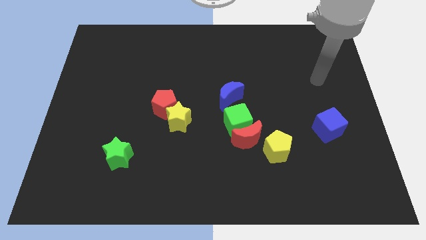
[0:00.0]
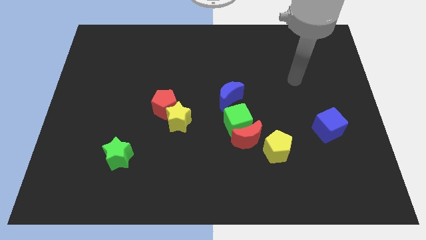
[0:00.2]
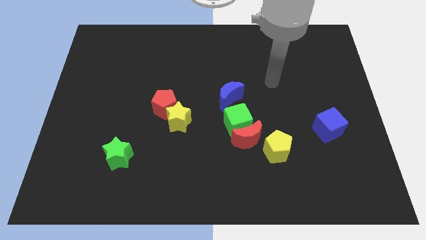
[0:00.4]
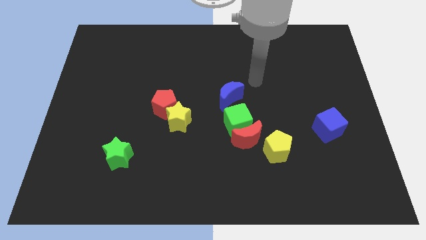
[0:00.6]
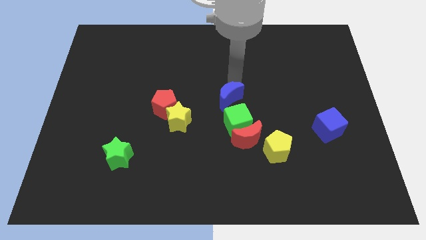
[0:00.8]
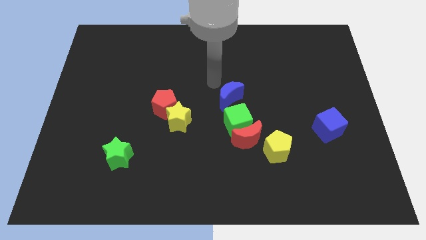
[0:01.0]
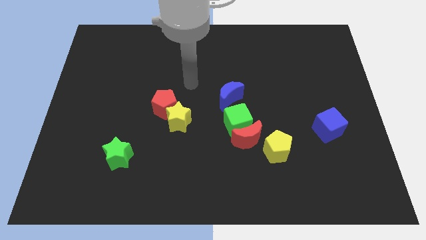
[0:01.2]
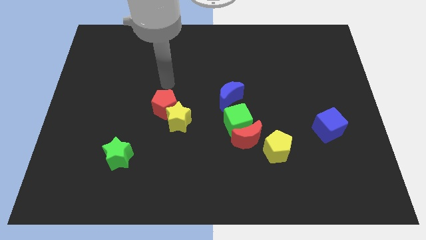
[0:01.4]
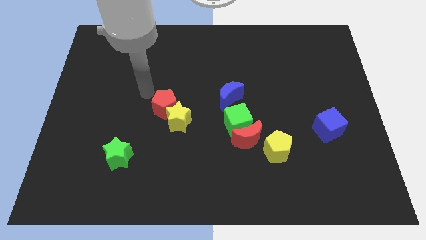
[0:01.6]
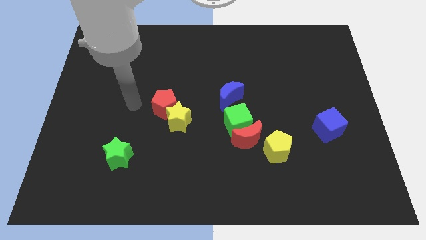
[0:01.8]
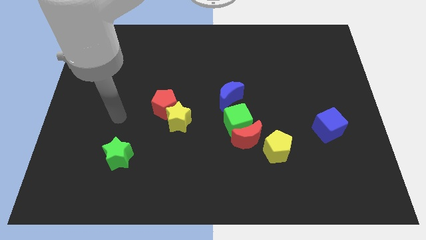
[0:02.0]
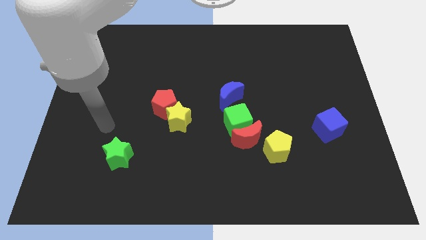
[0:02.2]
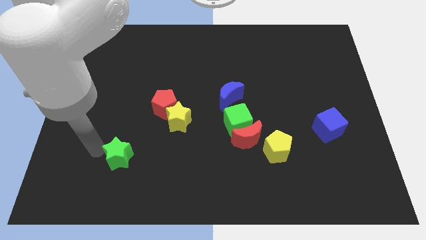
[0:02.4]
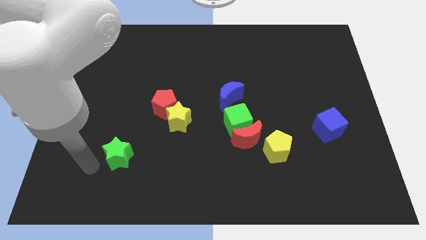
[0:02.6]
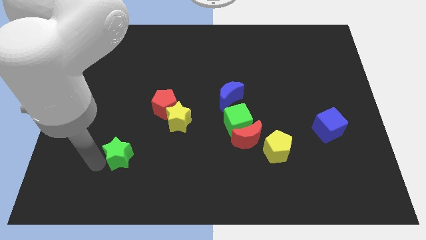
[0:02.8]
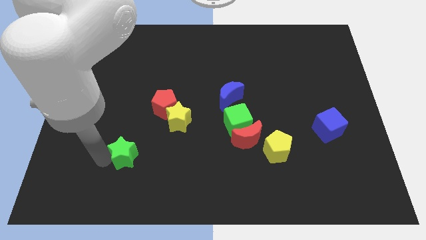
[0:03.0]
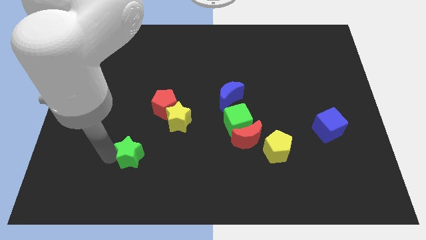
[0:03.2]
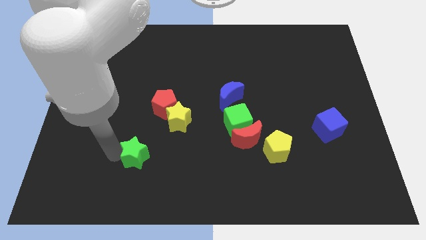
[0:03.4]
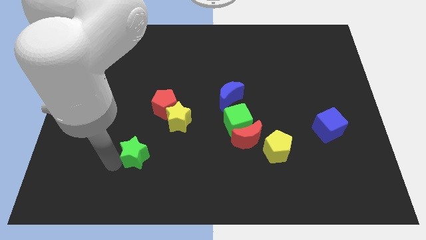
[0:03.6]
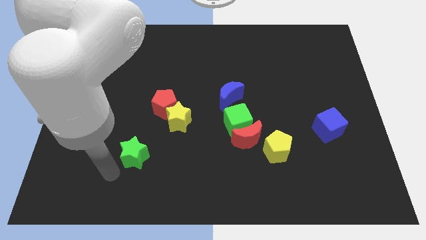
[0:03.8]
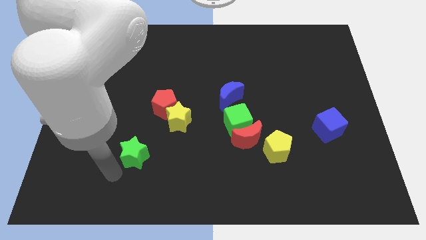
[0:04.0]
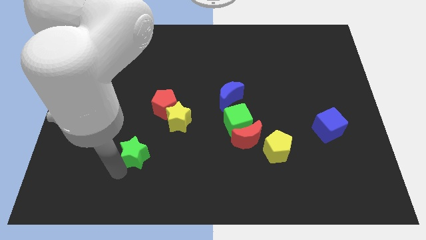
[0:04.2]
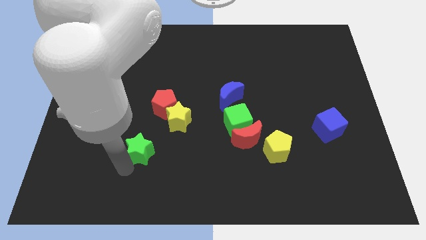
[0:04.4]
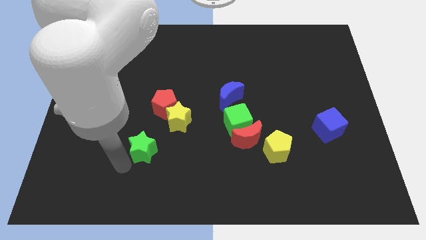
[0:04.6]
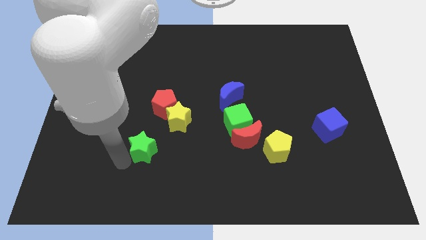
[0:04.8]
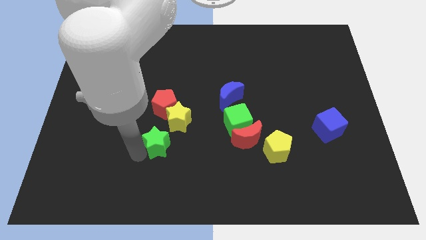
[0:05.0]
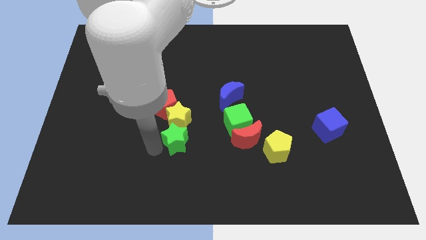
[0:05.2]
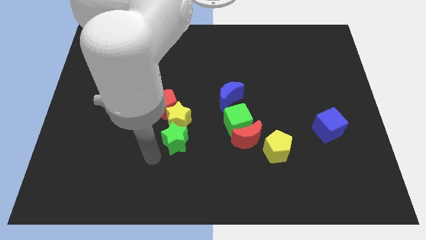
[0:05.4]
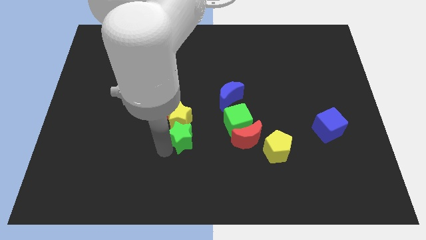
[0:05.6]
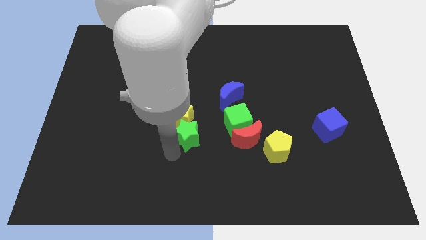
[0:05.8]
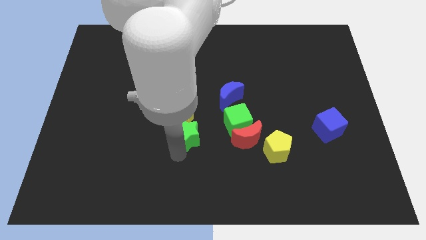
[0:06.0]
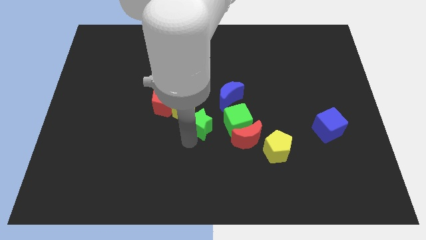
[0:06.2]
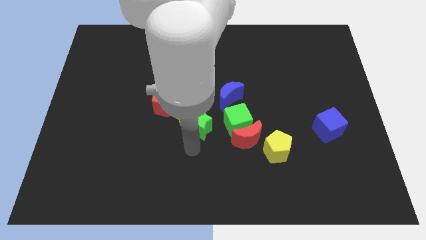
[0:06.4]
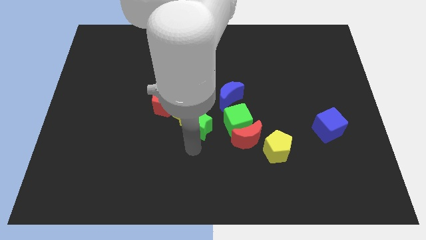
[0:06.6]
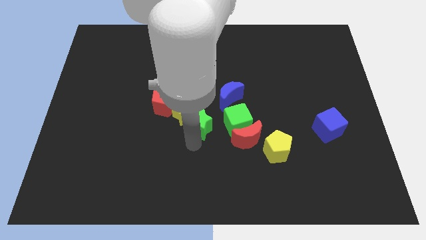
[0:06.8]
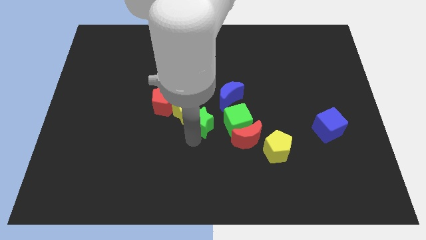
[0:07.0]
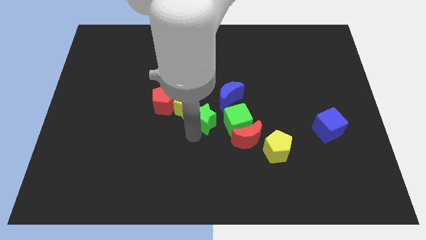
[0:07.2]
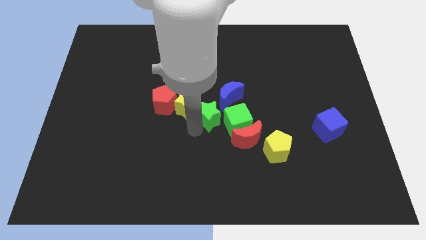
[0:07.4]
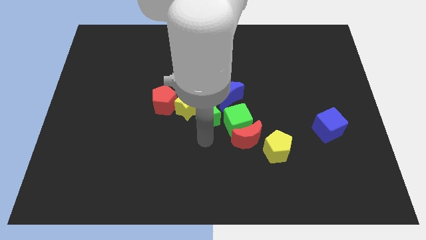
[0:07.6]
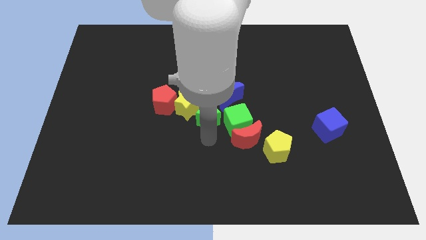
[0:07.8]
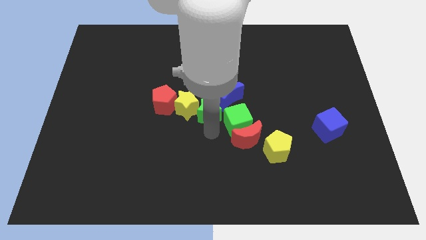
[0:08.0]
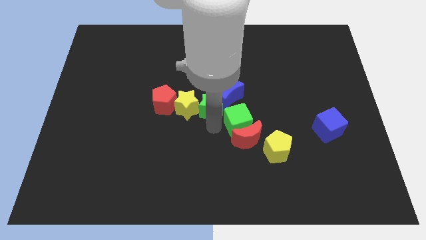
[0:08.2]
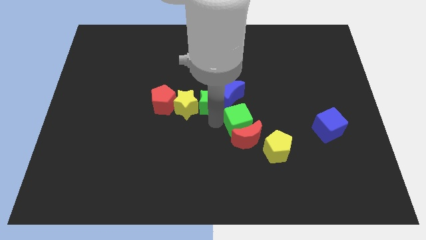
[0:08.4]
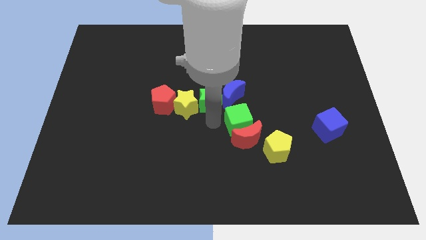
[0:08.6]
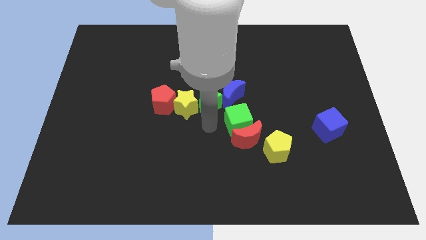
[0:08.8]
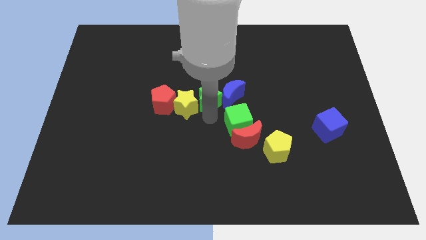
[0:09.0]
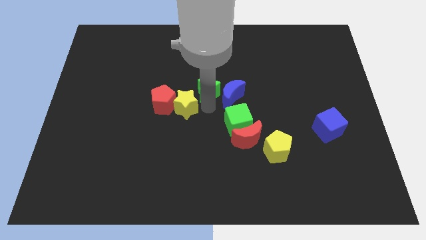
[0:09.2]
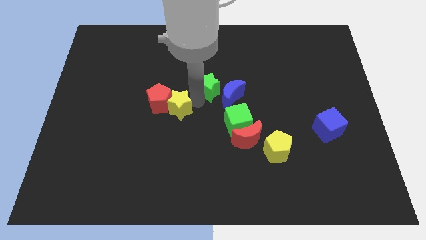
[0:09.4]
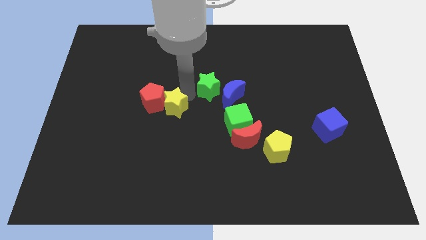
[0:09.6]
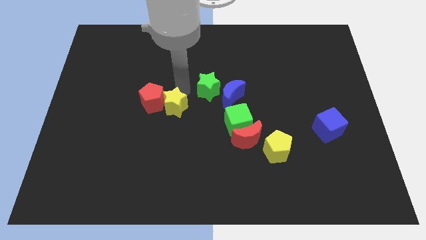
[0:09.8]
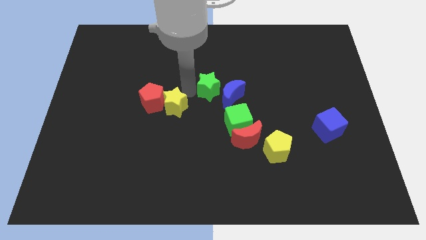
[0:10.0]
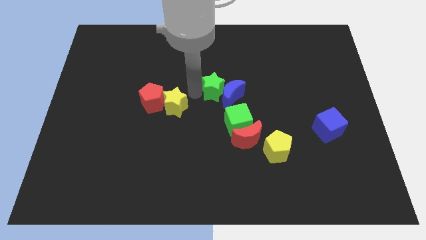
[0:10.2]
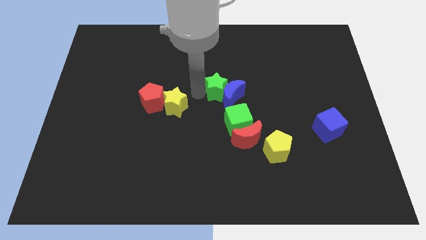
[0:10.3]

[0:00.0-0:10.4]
slide the green star to the top of the green cube

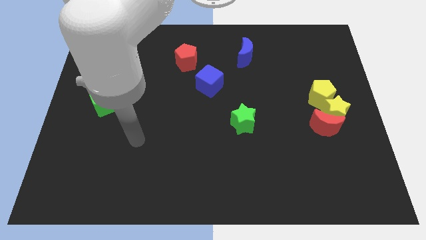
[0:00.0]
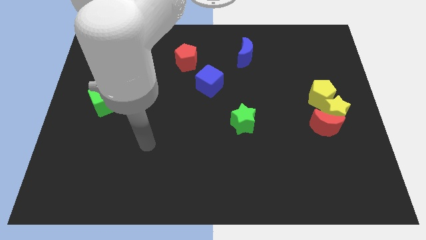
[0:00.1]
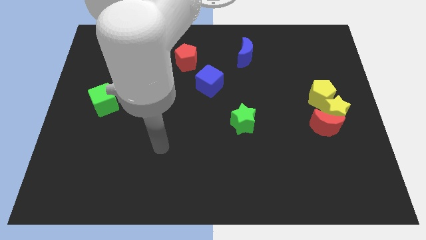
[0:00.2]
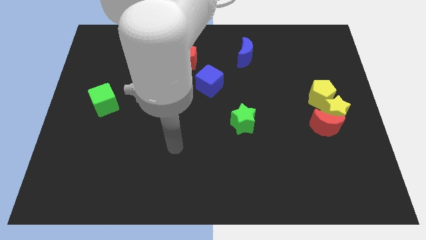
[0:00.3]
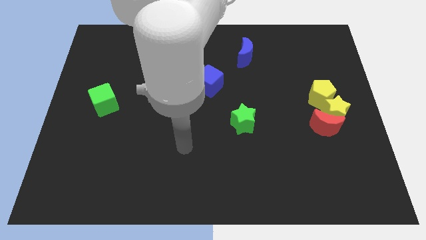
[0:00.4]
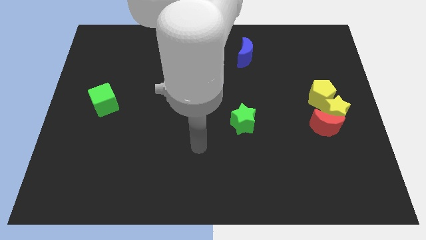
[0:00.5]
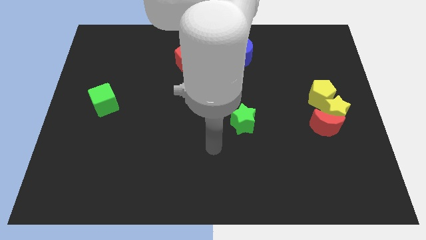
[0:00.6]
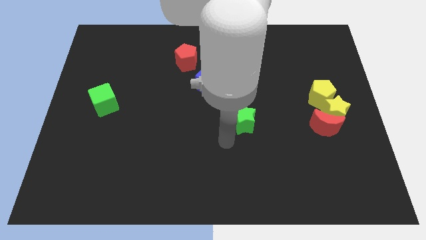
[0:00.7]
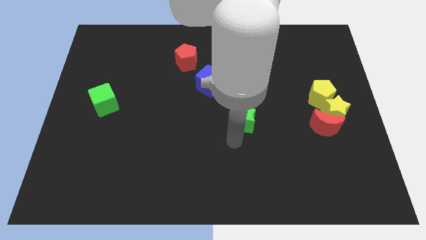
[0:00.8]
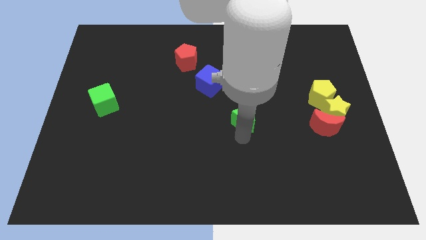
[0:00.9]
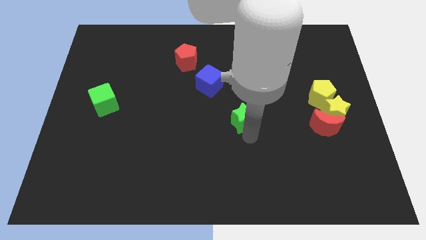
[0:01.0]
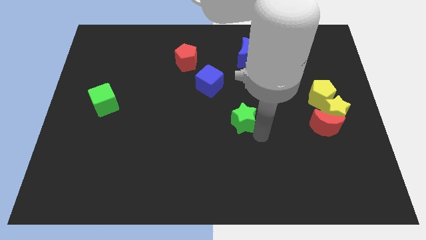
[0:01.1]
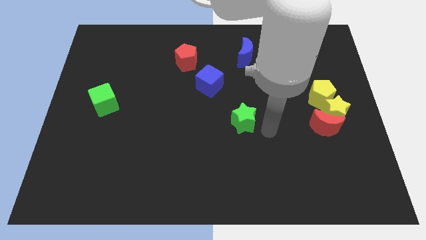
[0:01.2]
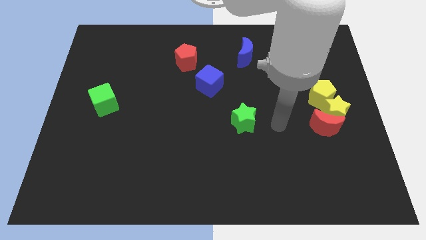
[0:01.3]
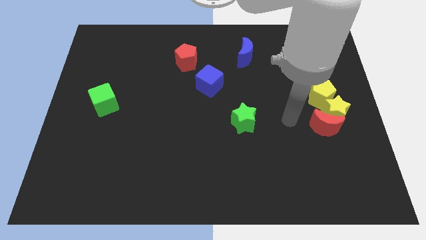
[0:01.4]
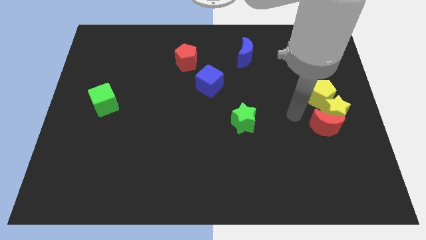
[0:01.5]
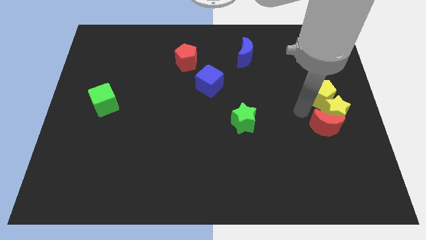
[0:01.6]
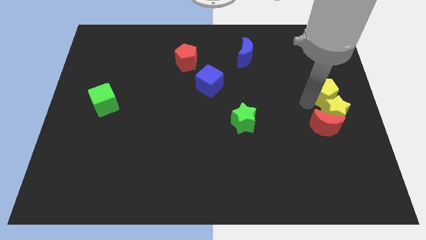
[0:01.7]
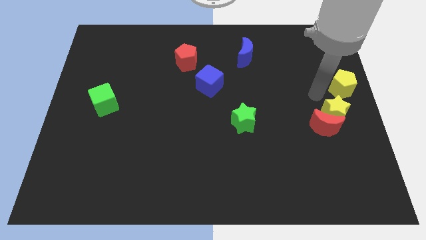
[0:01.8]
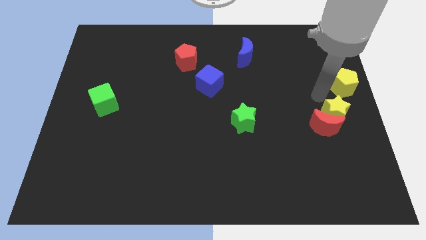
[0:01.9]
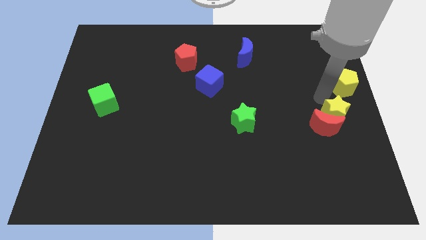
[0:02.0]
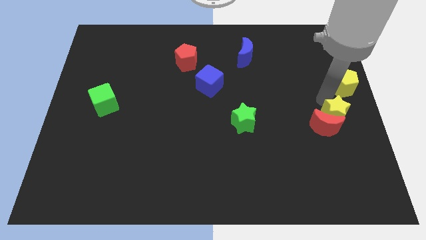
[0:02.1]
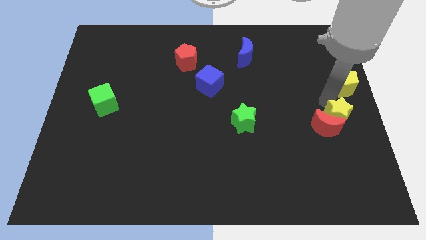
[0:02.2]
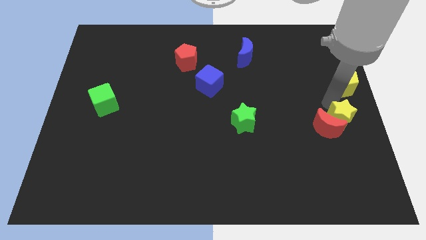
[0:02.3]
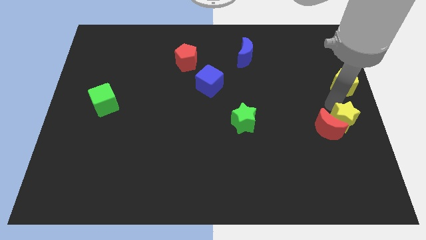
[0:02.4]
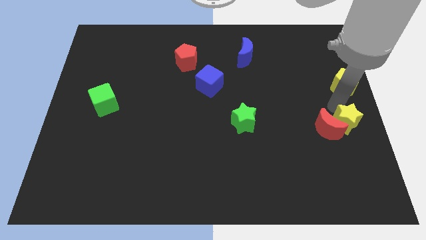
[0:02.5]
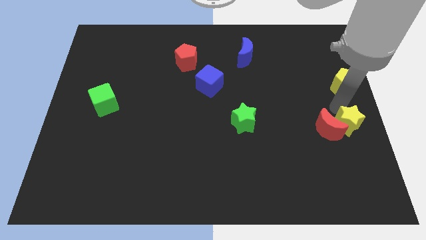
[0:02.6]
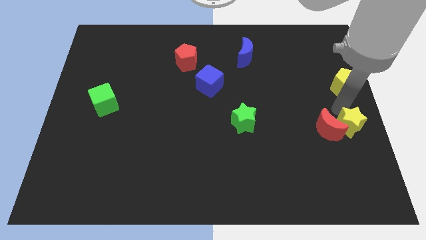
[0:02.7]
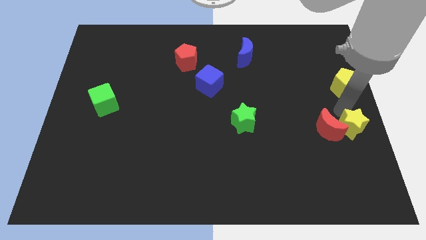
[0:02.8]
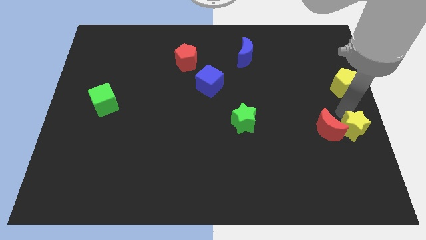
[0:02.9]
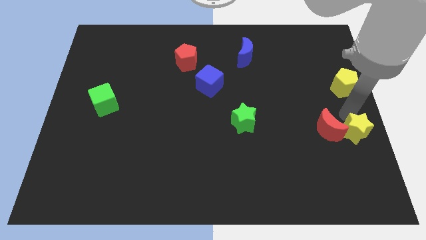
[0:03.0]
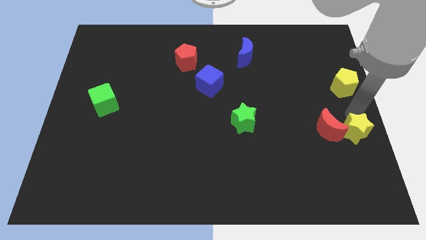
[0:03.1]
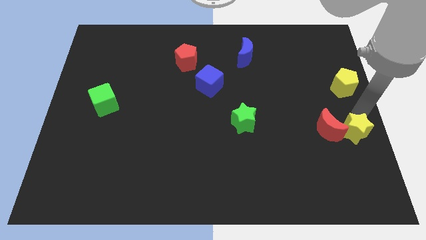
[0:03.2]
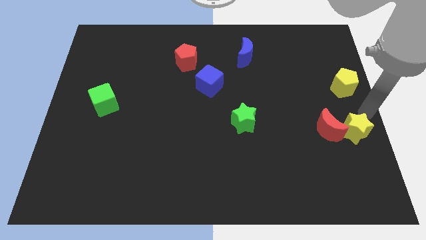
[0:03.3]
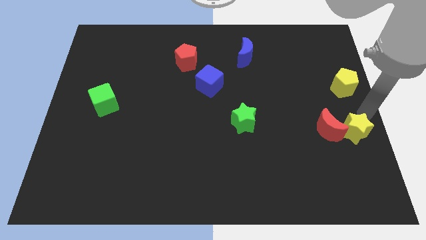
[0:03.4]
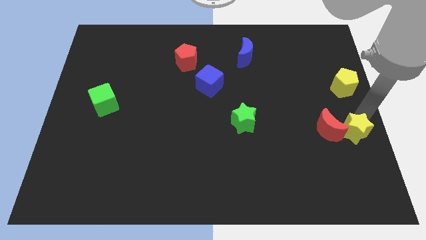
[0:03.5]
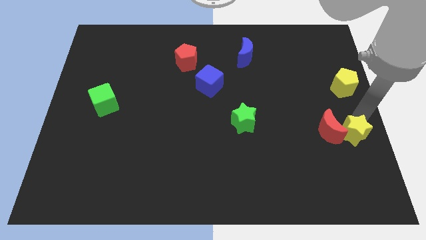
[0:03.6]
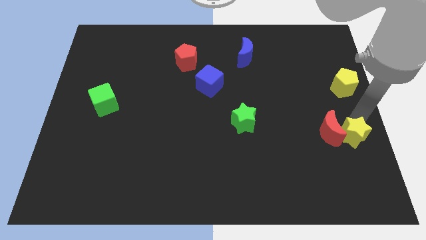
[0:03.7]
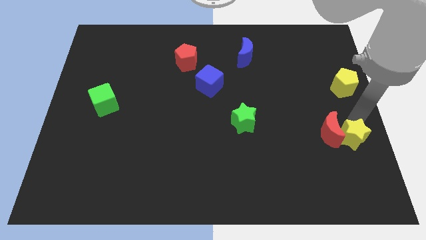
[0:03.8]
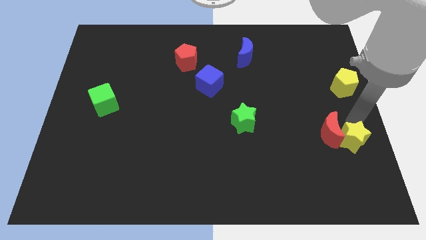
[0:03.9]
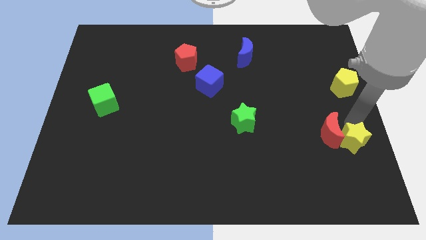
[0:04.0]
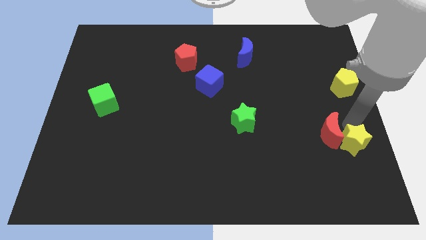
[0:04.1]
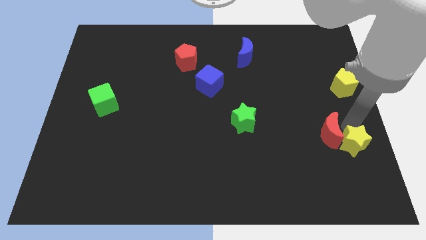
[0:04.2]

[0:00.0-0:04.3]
slide the yellow star to the bottom of the red moon
